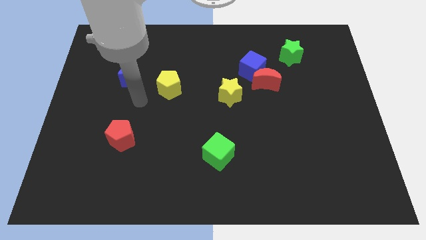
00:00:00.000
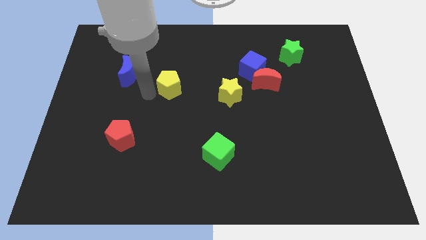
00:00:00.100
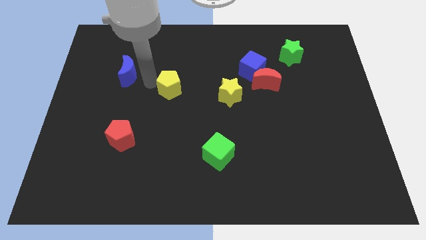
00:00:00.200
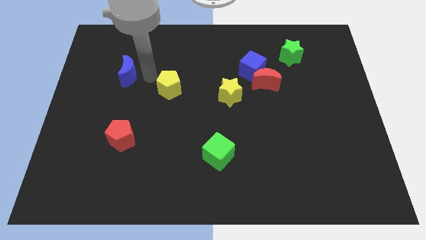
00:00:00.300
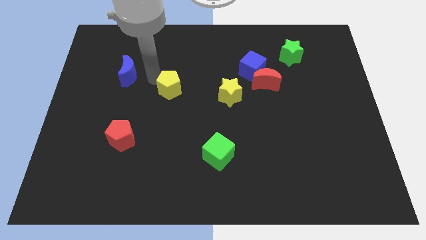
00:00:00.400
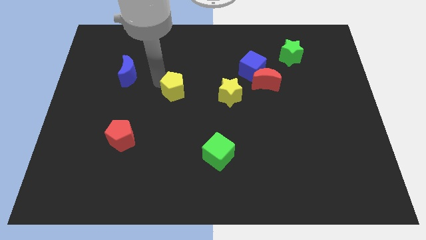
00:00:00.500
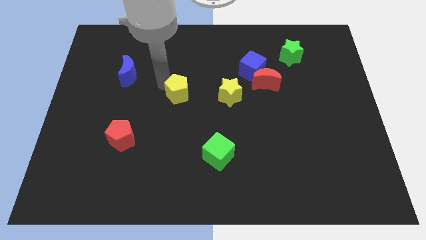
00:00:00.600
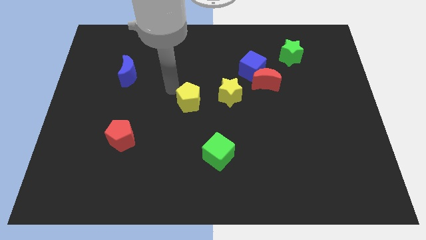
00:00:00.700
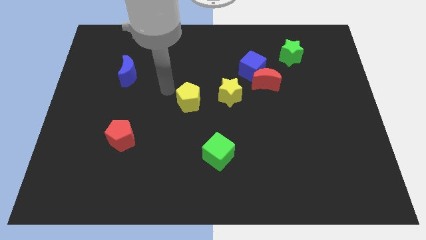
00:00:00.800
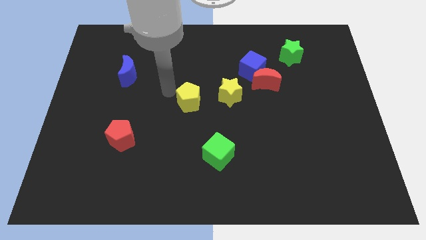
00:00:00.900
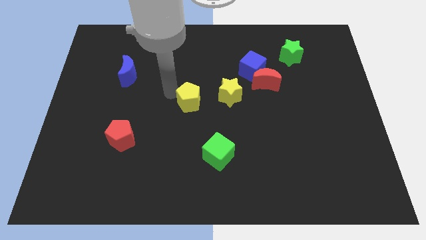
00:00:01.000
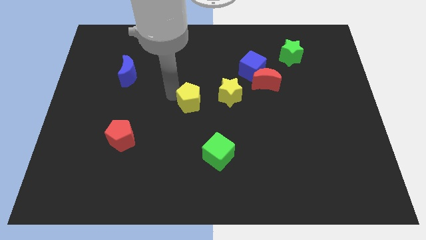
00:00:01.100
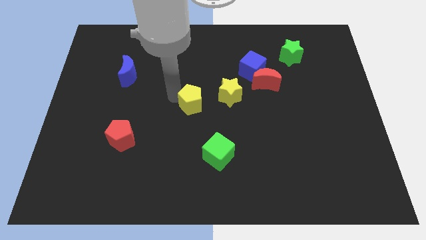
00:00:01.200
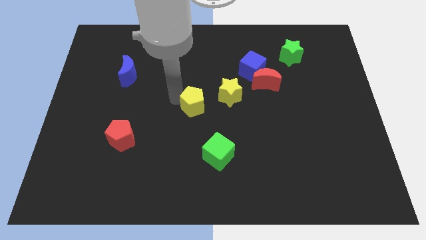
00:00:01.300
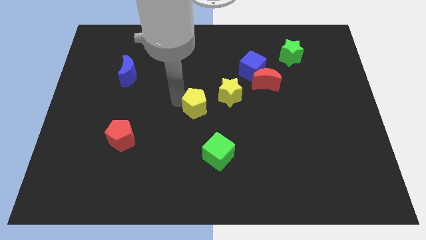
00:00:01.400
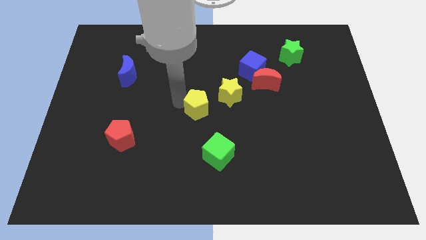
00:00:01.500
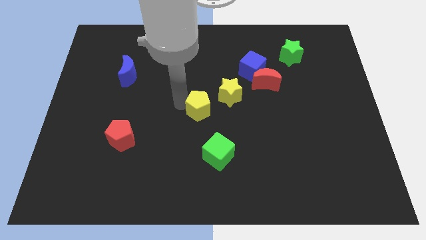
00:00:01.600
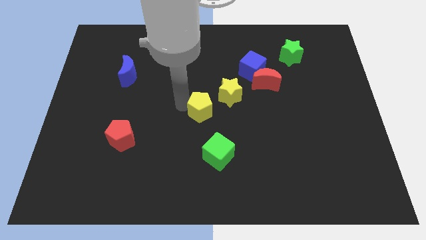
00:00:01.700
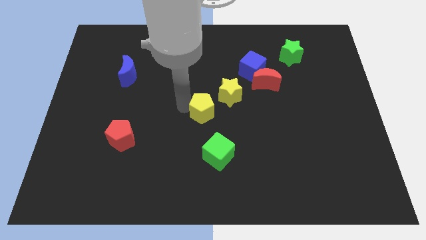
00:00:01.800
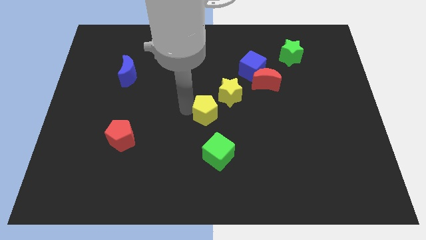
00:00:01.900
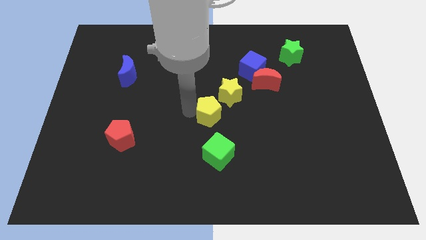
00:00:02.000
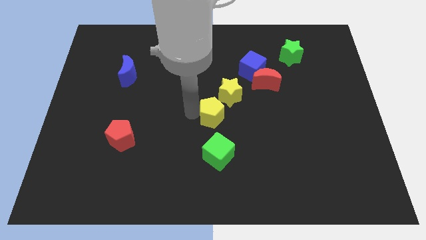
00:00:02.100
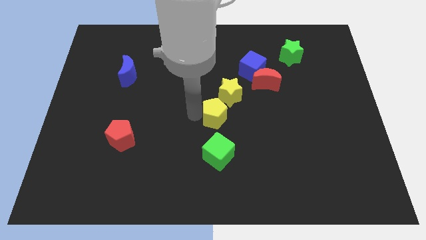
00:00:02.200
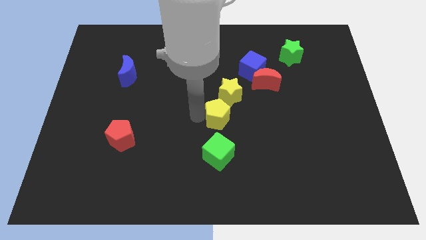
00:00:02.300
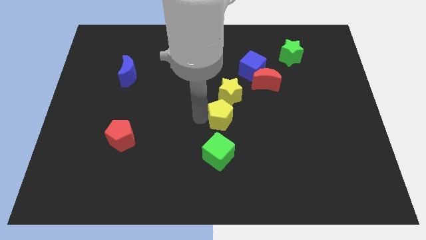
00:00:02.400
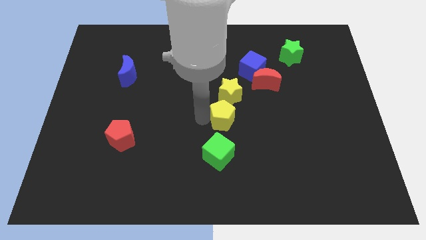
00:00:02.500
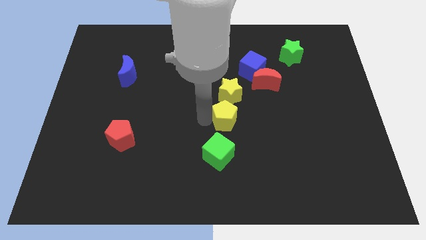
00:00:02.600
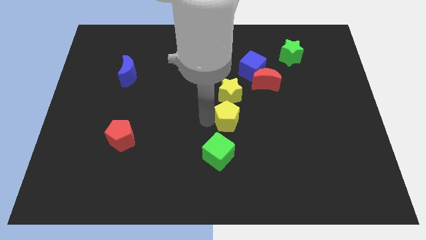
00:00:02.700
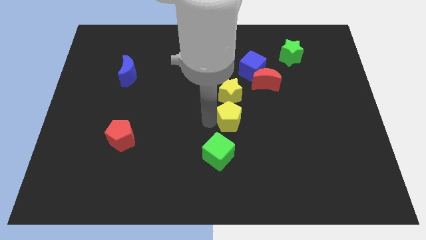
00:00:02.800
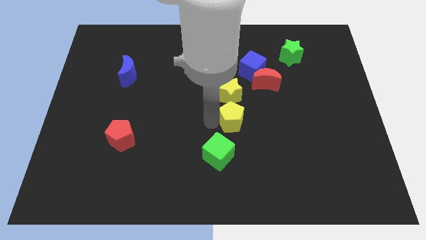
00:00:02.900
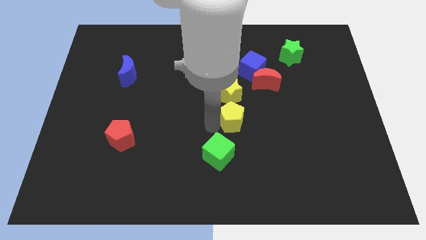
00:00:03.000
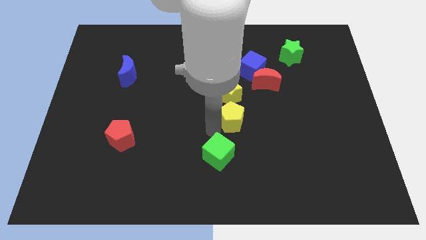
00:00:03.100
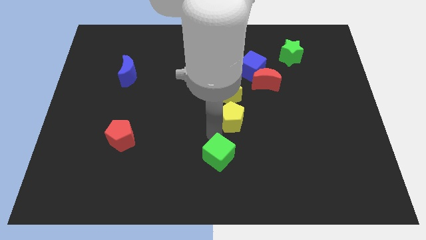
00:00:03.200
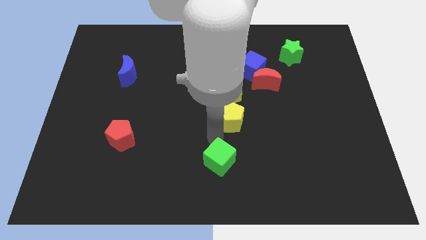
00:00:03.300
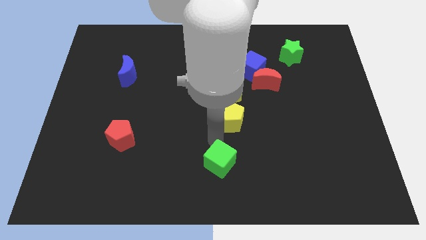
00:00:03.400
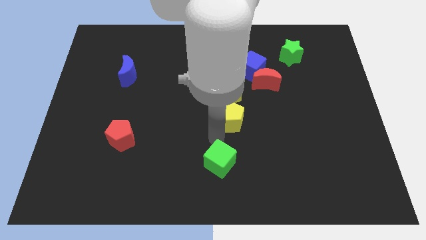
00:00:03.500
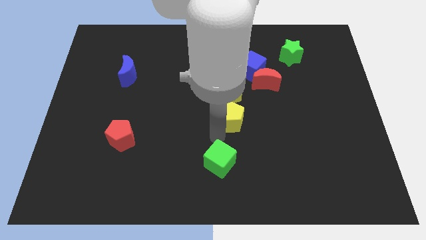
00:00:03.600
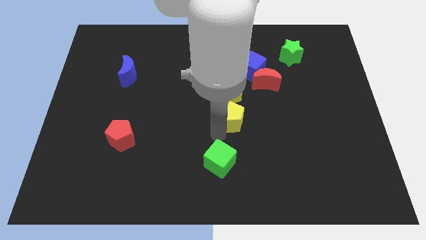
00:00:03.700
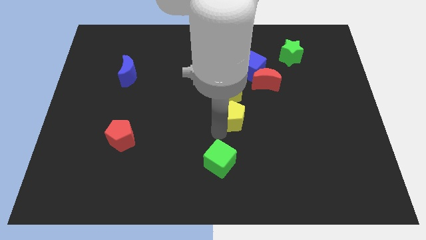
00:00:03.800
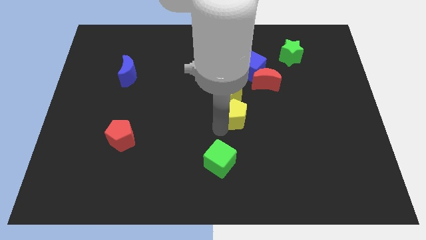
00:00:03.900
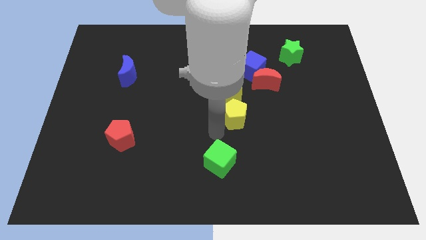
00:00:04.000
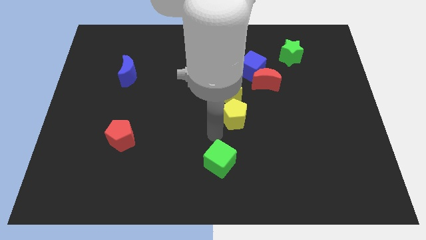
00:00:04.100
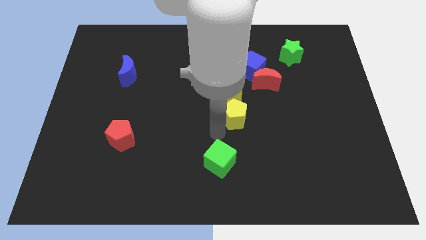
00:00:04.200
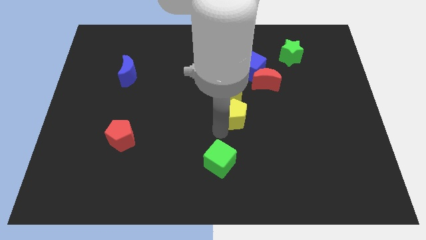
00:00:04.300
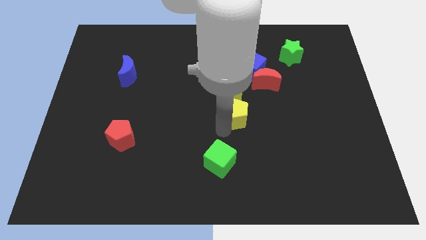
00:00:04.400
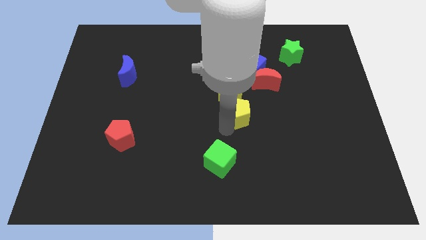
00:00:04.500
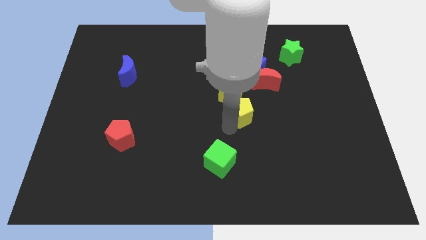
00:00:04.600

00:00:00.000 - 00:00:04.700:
put the yellow pentagon to the bottom of the blue cube

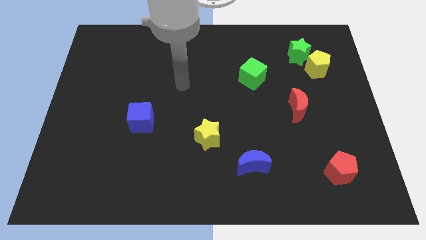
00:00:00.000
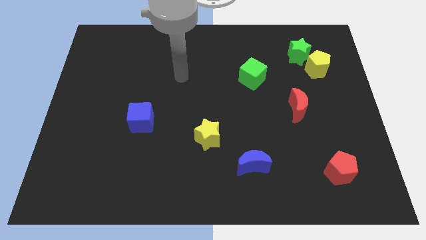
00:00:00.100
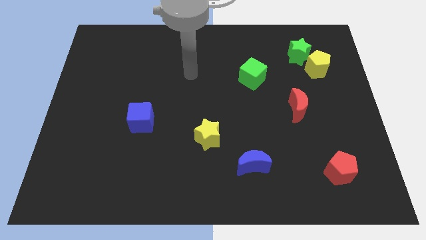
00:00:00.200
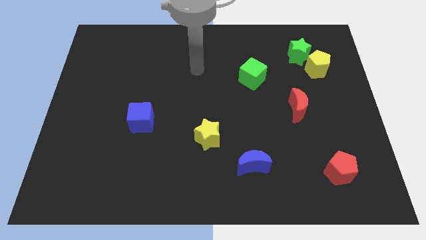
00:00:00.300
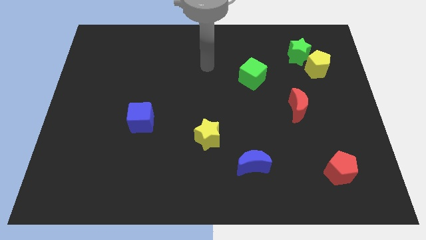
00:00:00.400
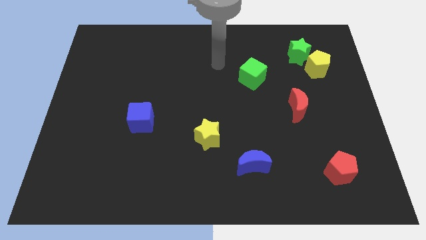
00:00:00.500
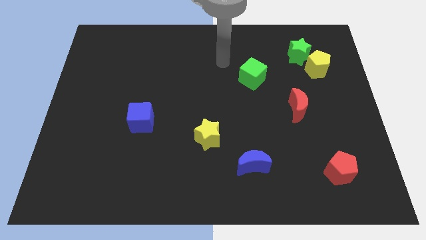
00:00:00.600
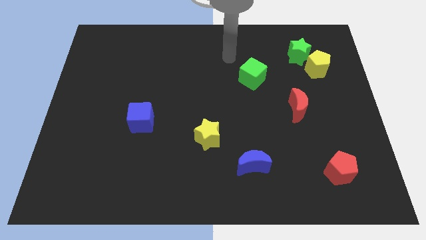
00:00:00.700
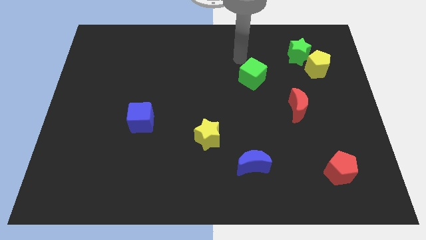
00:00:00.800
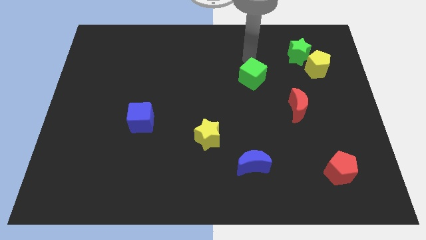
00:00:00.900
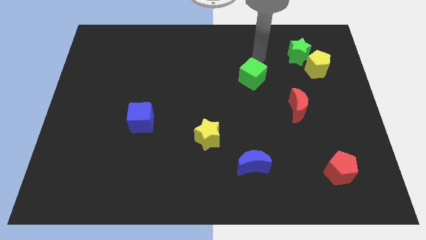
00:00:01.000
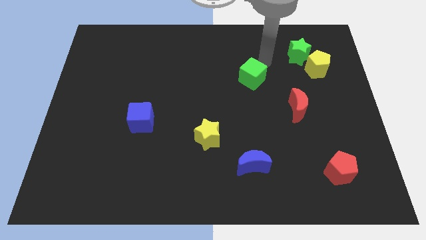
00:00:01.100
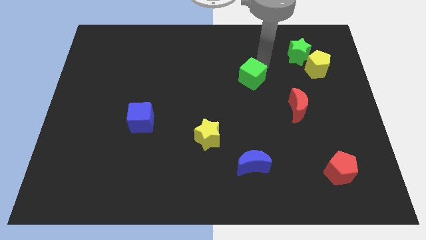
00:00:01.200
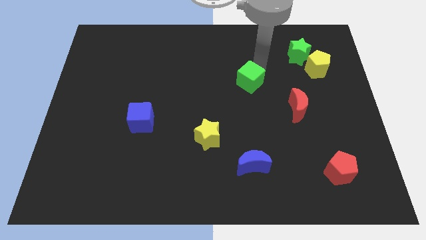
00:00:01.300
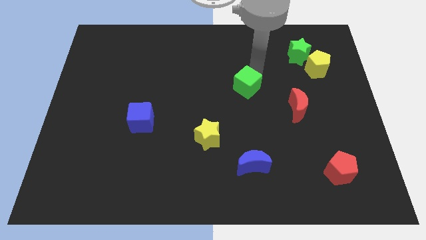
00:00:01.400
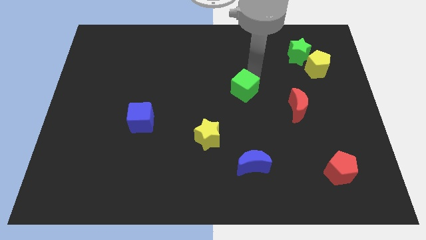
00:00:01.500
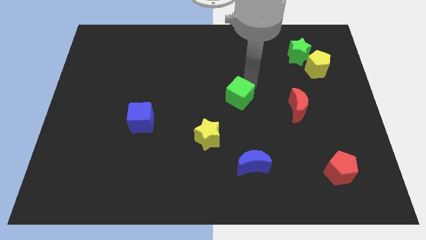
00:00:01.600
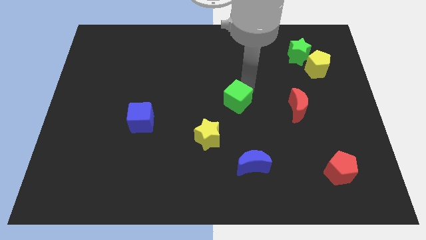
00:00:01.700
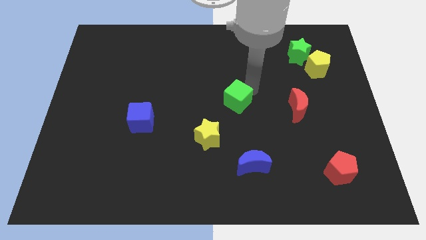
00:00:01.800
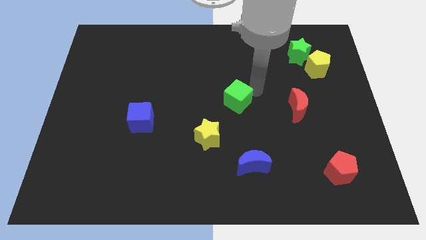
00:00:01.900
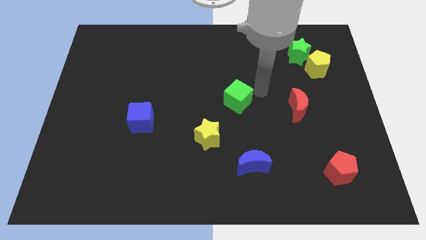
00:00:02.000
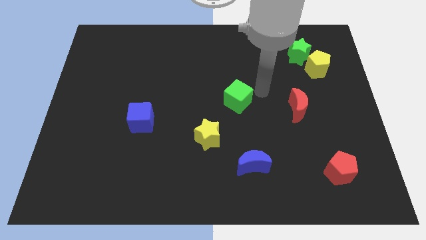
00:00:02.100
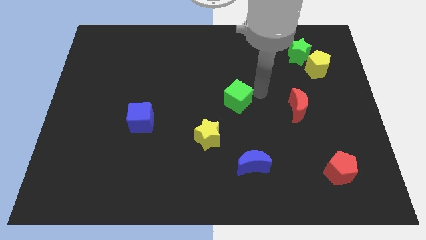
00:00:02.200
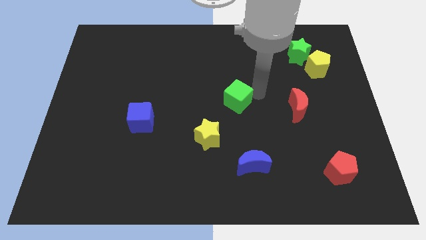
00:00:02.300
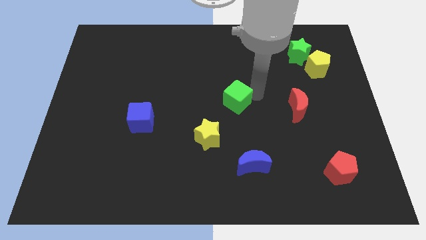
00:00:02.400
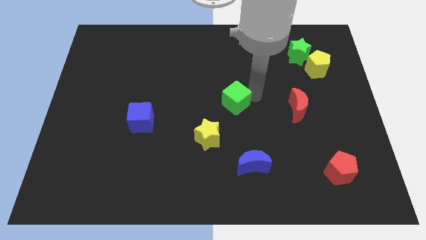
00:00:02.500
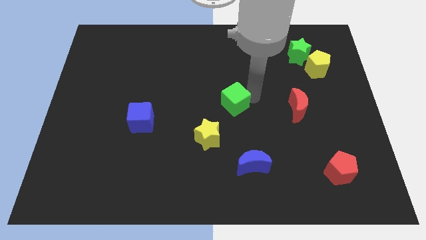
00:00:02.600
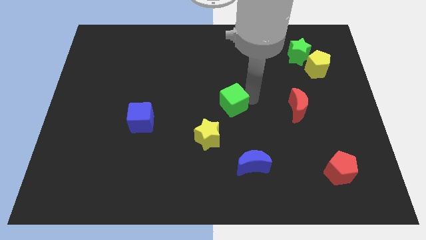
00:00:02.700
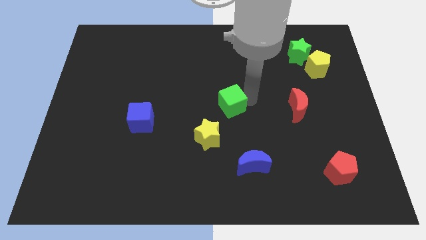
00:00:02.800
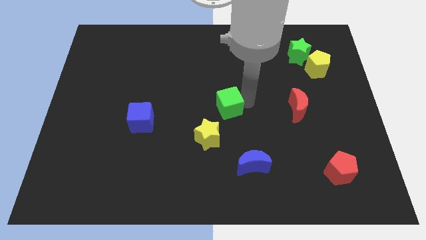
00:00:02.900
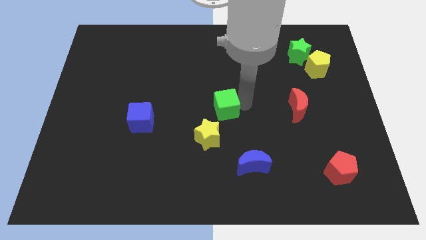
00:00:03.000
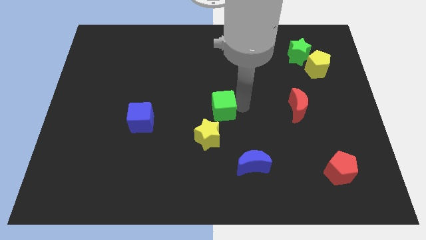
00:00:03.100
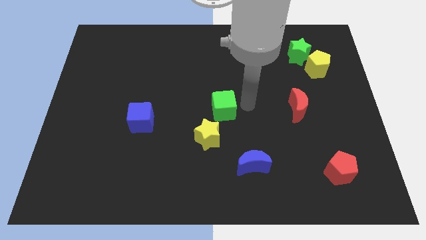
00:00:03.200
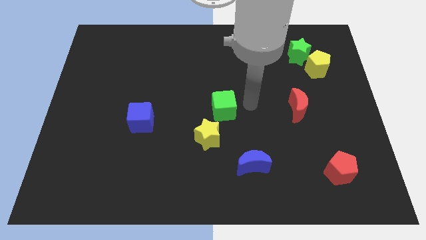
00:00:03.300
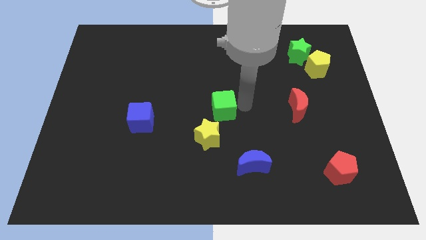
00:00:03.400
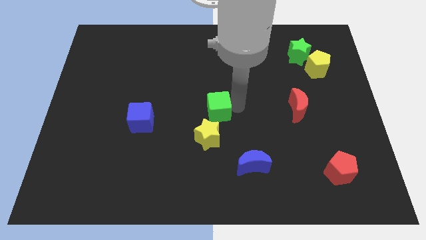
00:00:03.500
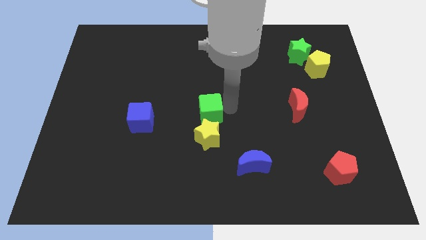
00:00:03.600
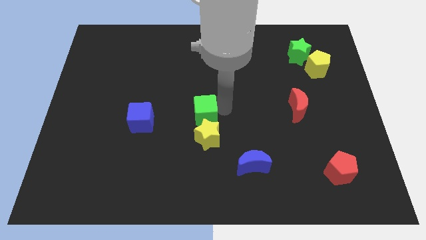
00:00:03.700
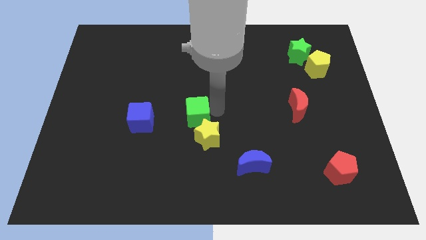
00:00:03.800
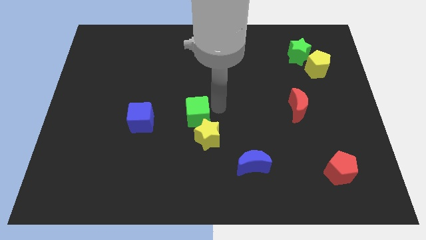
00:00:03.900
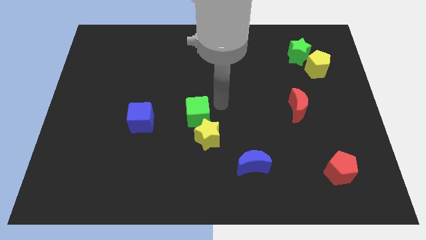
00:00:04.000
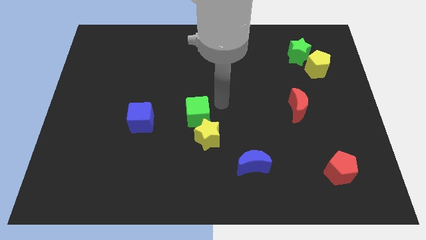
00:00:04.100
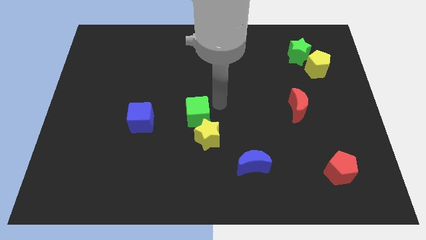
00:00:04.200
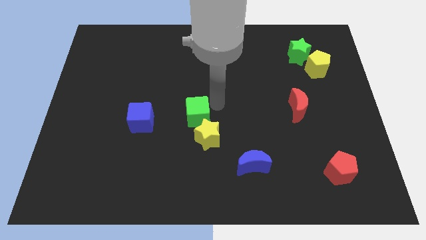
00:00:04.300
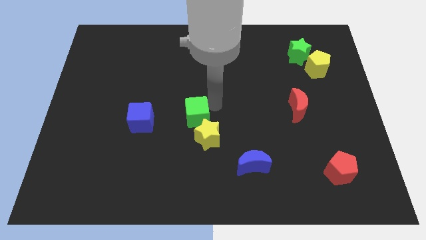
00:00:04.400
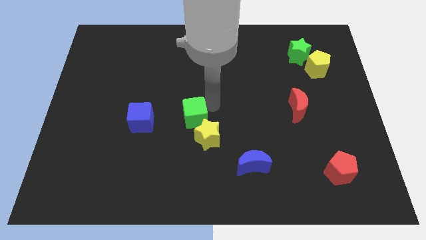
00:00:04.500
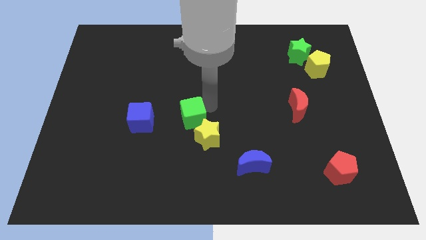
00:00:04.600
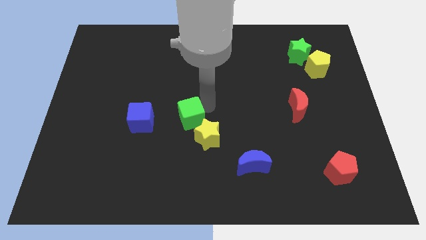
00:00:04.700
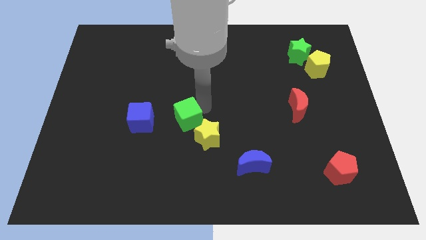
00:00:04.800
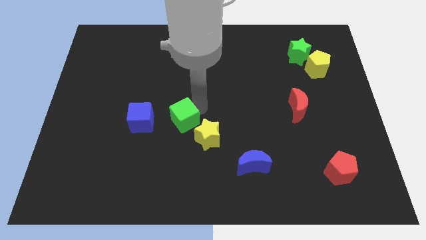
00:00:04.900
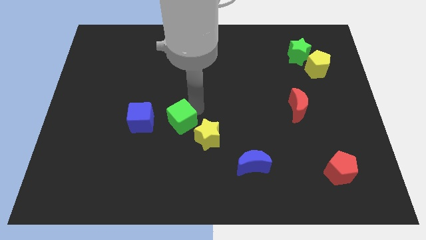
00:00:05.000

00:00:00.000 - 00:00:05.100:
slide the green cube just left of the yellow star
